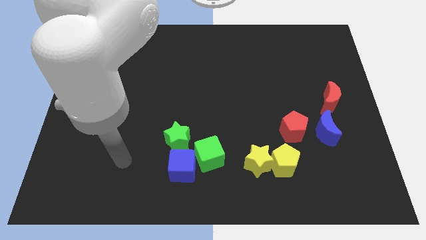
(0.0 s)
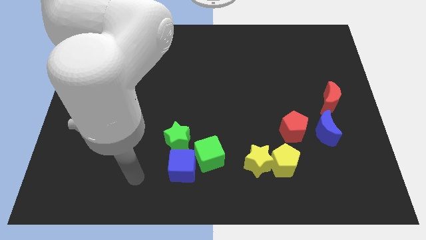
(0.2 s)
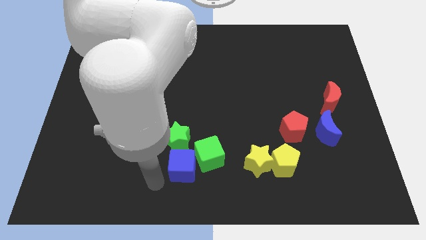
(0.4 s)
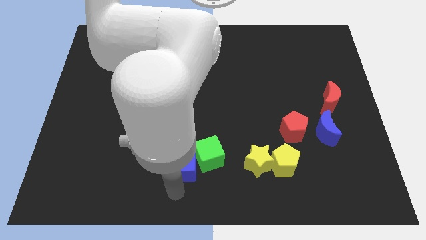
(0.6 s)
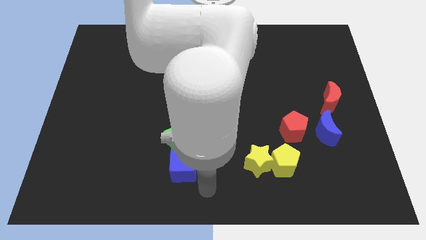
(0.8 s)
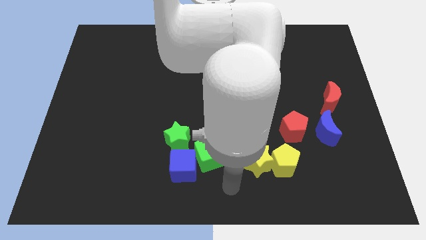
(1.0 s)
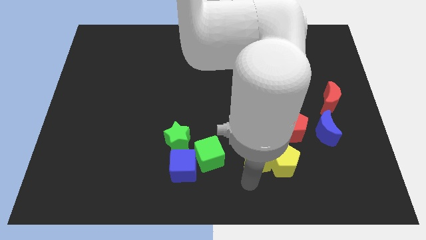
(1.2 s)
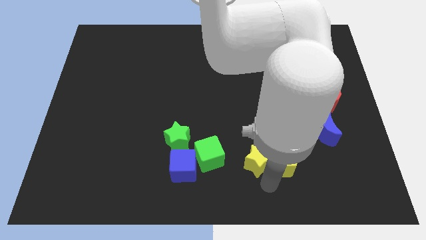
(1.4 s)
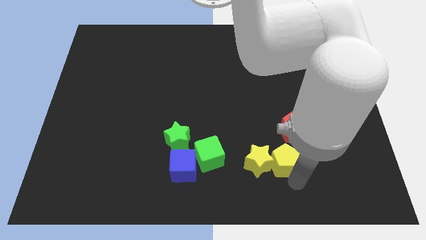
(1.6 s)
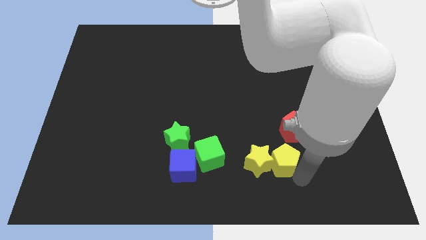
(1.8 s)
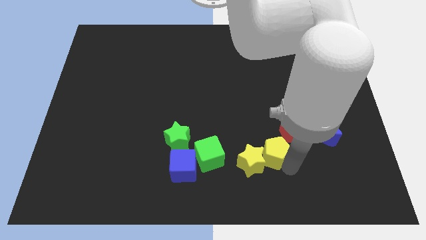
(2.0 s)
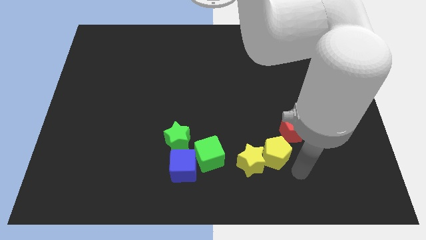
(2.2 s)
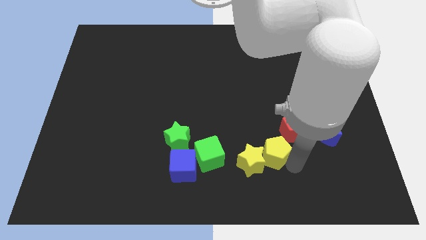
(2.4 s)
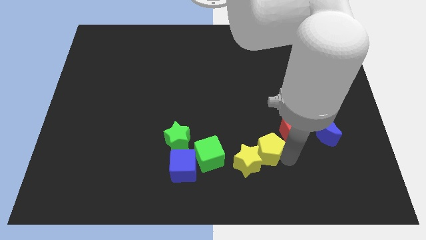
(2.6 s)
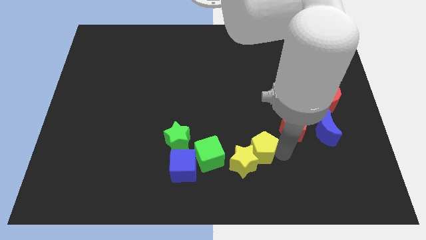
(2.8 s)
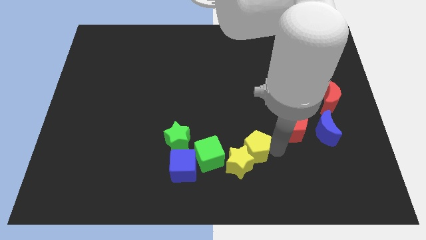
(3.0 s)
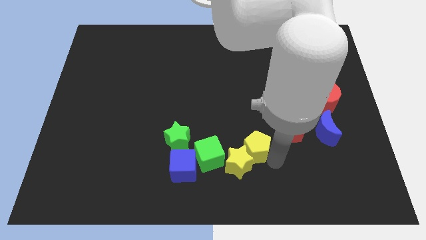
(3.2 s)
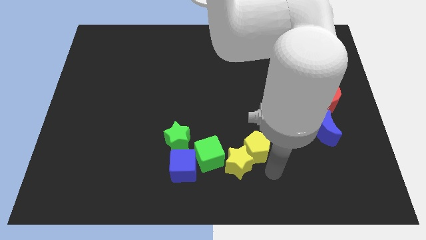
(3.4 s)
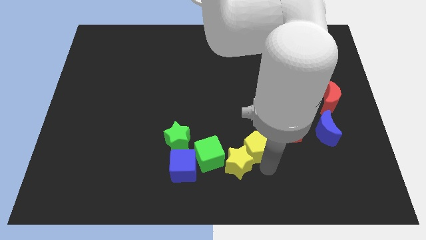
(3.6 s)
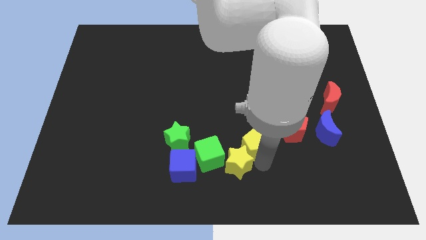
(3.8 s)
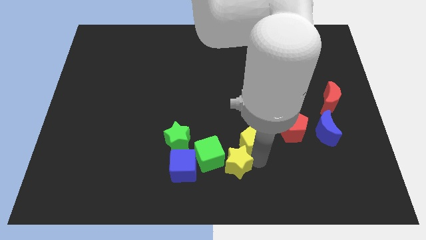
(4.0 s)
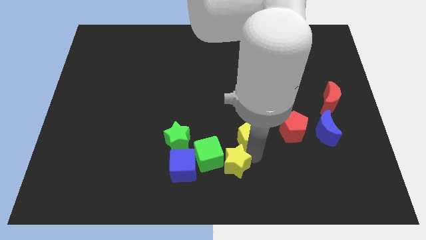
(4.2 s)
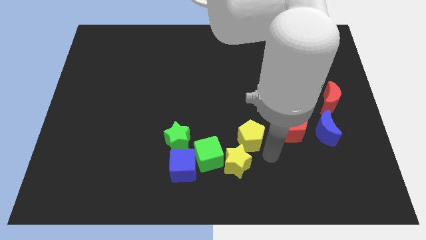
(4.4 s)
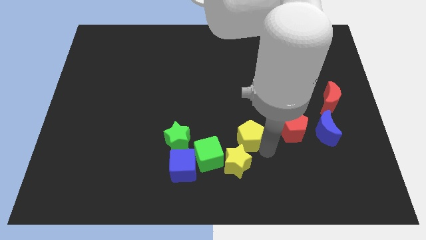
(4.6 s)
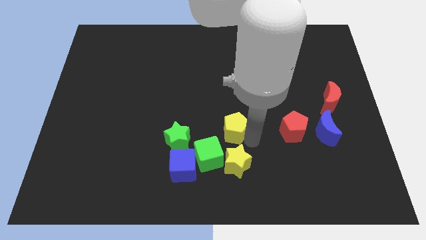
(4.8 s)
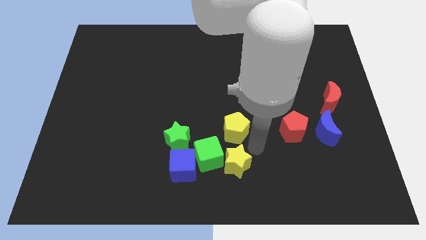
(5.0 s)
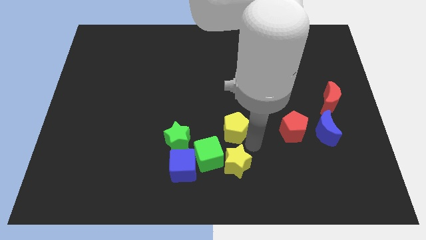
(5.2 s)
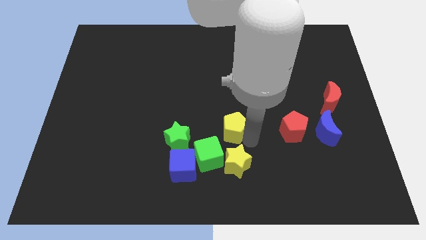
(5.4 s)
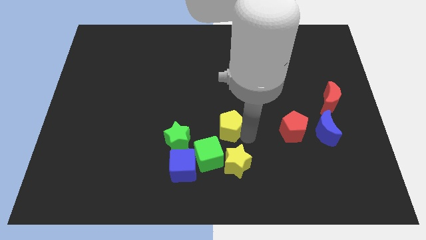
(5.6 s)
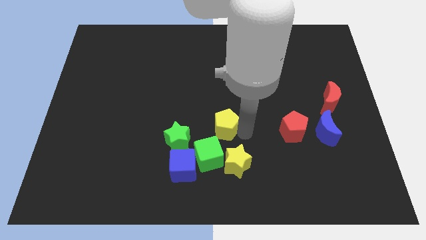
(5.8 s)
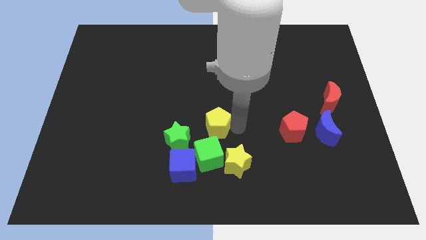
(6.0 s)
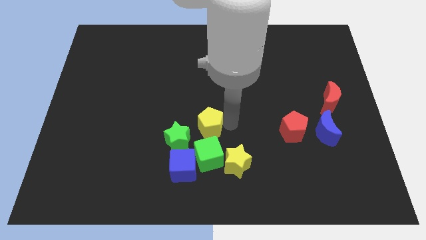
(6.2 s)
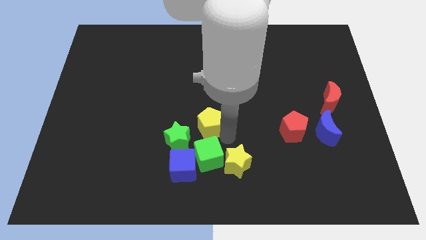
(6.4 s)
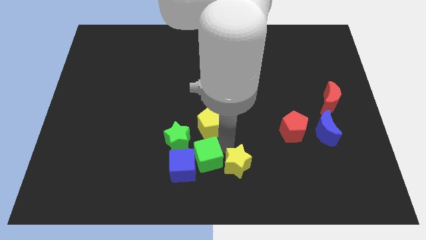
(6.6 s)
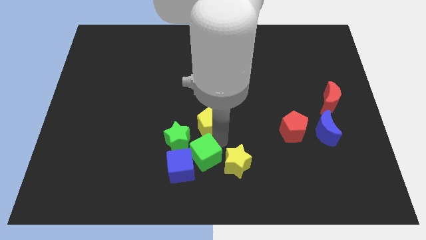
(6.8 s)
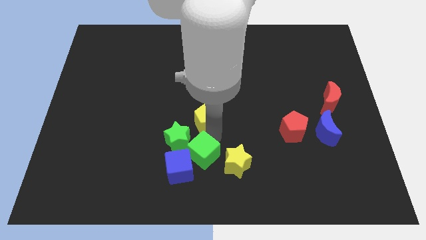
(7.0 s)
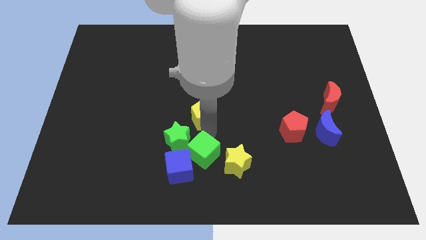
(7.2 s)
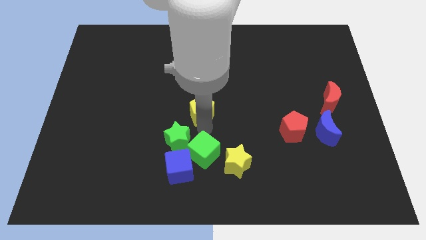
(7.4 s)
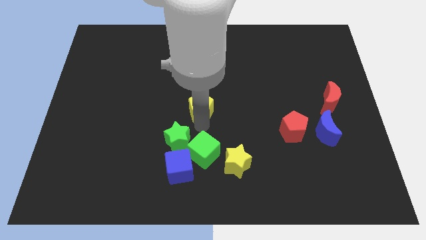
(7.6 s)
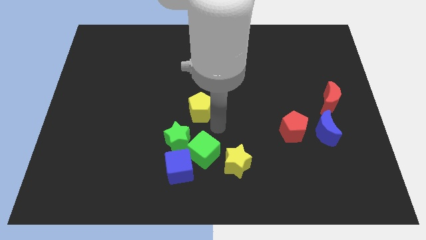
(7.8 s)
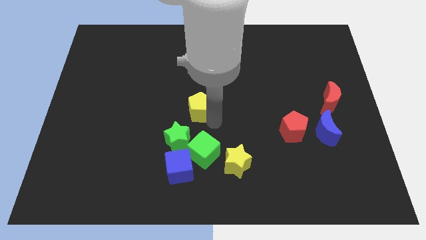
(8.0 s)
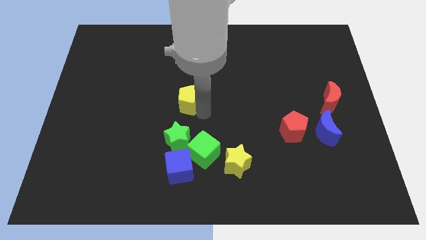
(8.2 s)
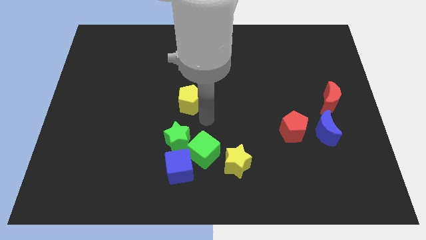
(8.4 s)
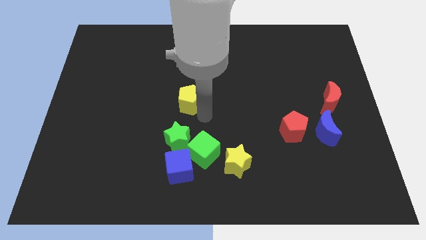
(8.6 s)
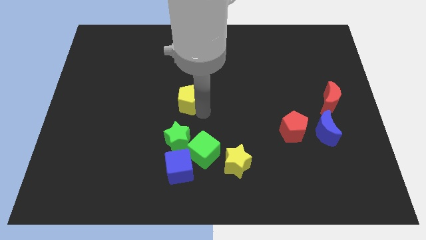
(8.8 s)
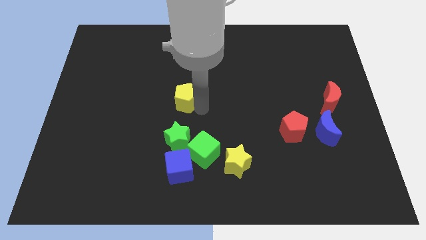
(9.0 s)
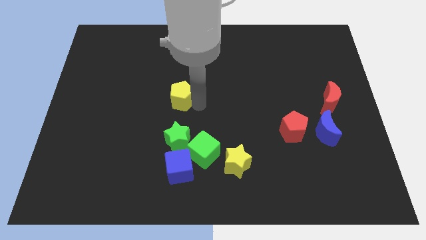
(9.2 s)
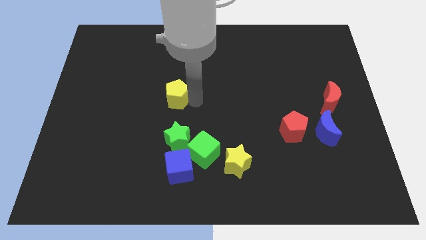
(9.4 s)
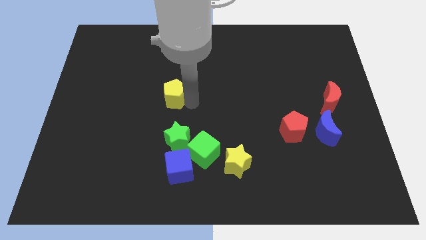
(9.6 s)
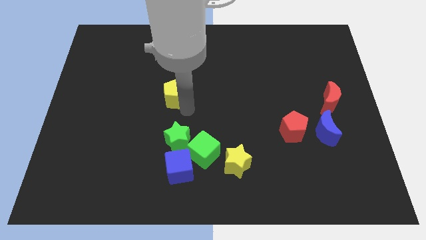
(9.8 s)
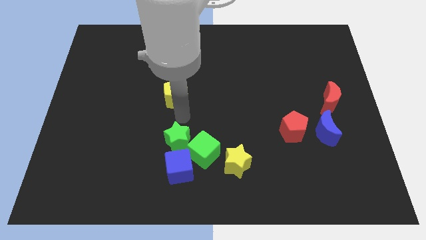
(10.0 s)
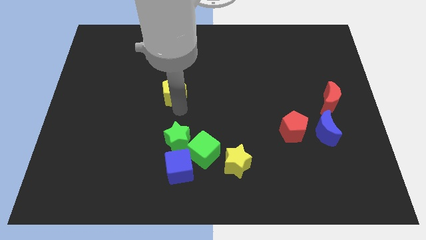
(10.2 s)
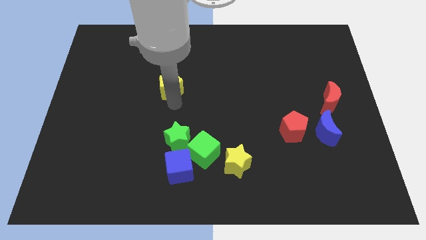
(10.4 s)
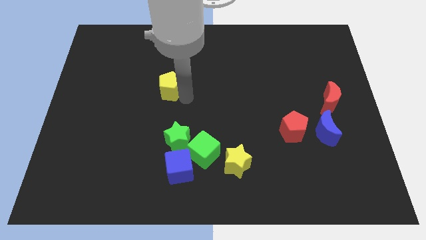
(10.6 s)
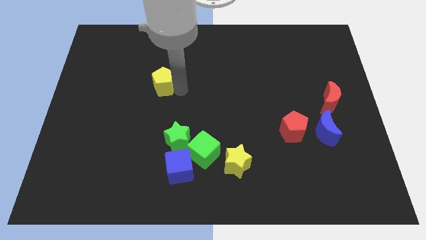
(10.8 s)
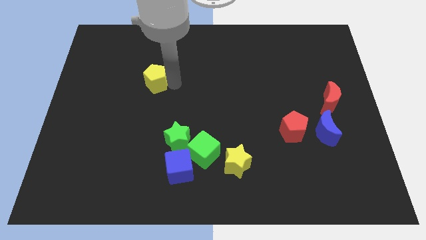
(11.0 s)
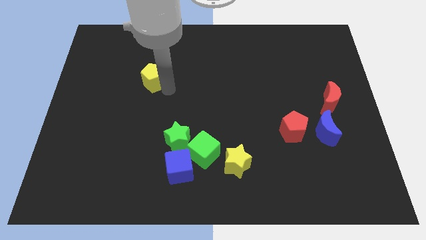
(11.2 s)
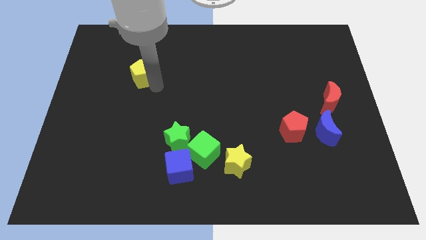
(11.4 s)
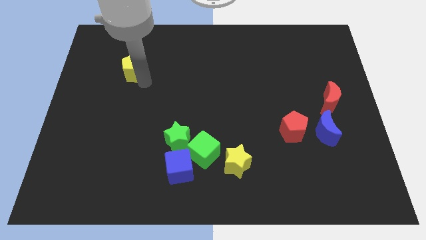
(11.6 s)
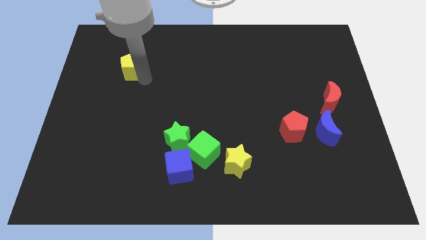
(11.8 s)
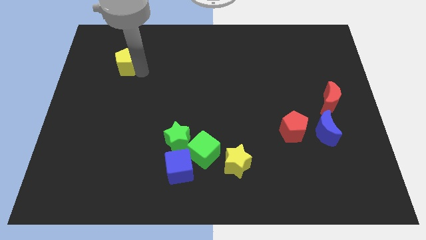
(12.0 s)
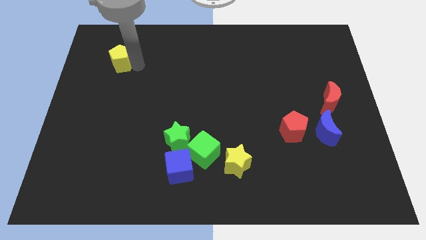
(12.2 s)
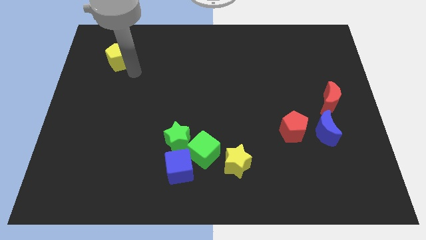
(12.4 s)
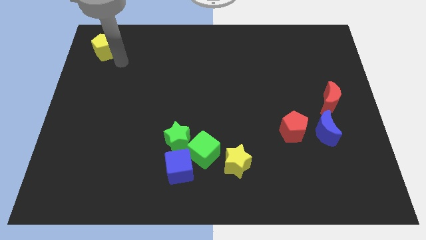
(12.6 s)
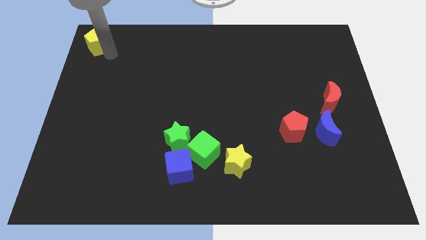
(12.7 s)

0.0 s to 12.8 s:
push the yellow pentagon to the top left of the board
